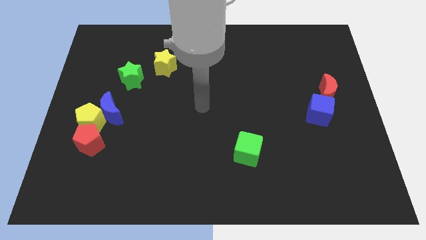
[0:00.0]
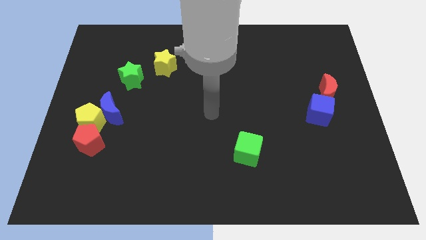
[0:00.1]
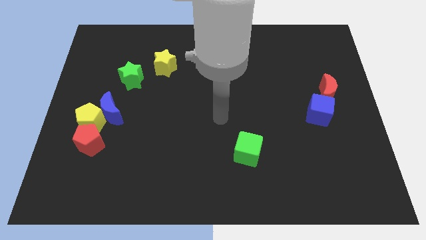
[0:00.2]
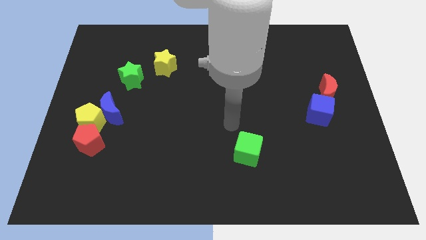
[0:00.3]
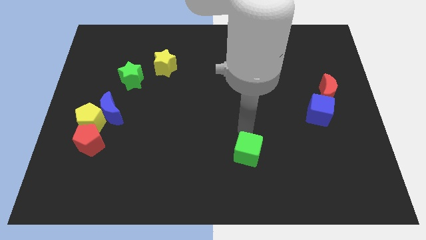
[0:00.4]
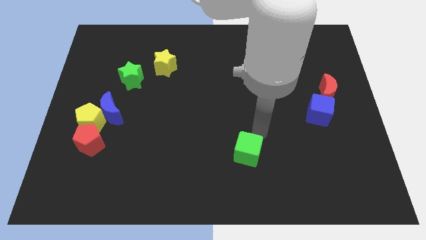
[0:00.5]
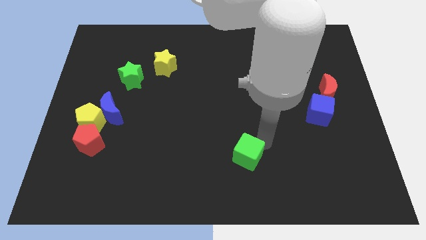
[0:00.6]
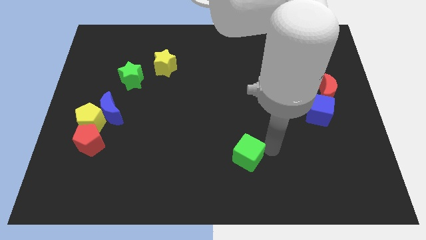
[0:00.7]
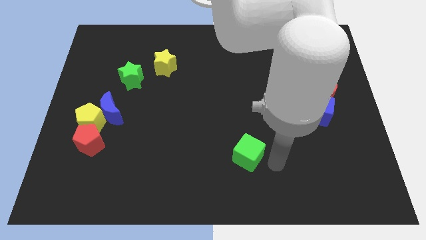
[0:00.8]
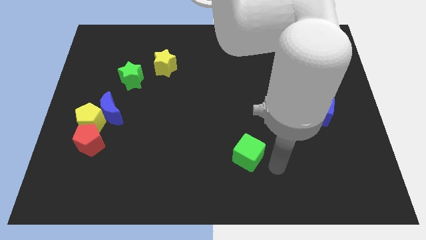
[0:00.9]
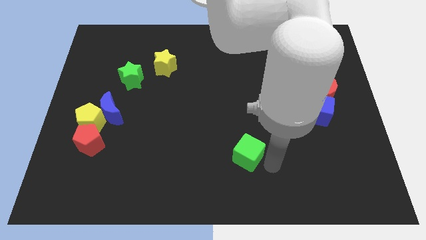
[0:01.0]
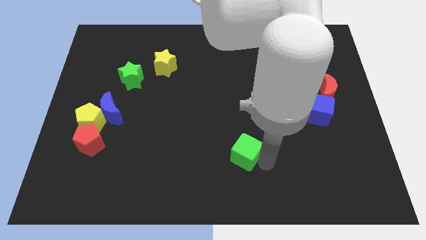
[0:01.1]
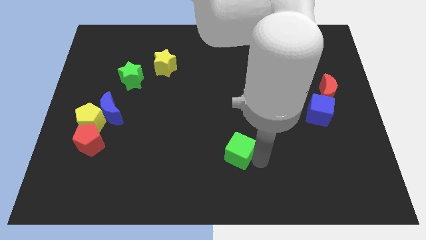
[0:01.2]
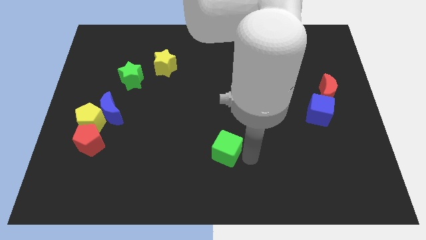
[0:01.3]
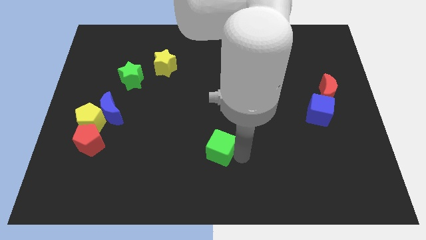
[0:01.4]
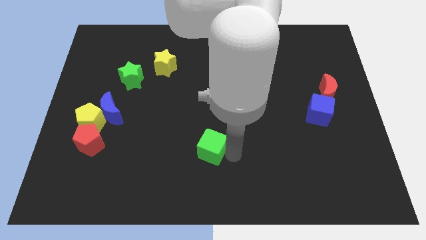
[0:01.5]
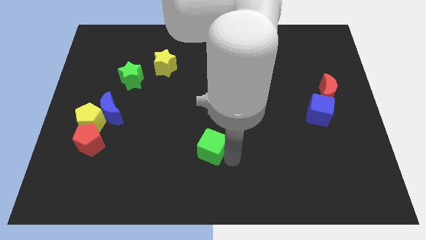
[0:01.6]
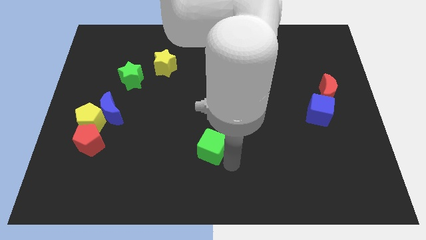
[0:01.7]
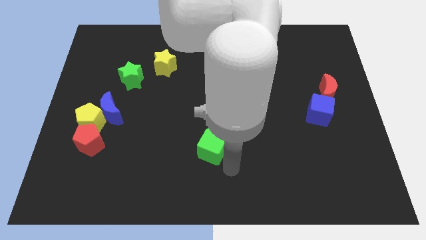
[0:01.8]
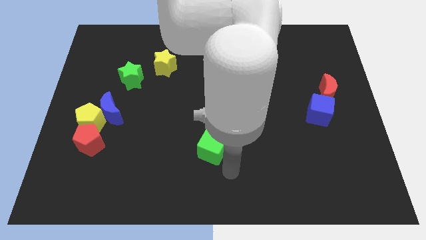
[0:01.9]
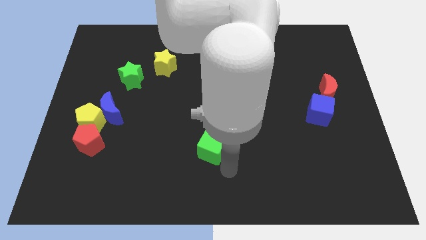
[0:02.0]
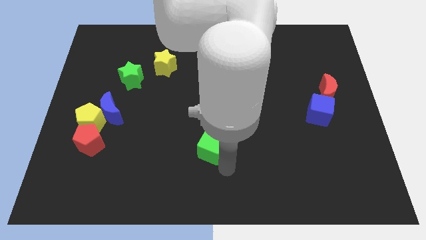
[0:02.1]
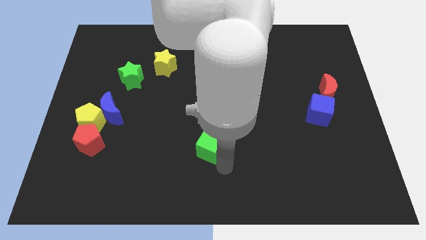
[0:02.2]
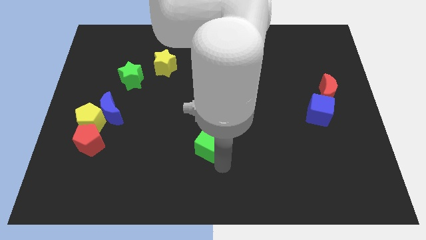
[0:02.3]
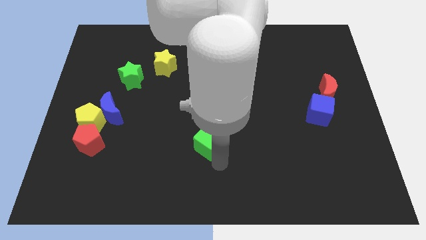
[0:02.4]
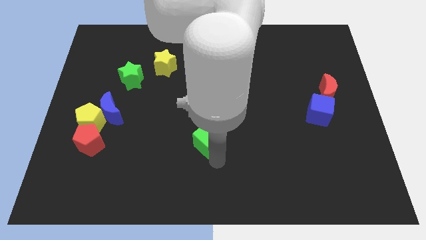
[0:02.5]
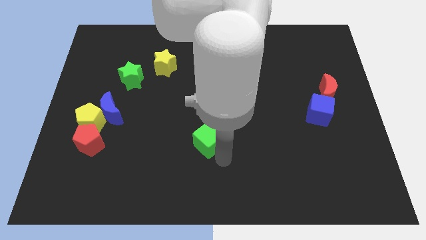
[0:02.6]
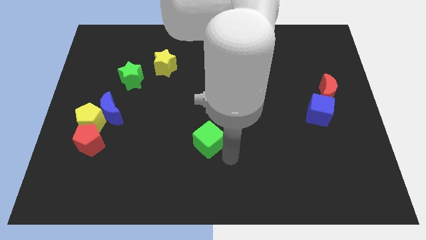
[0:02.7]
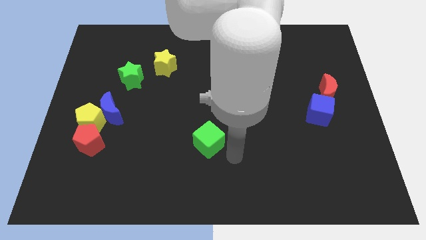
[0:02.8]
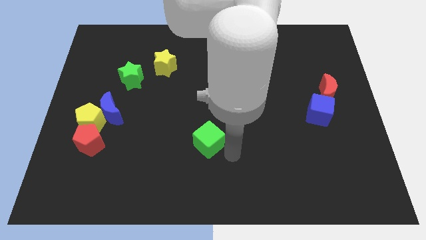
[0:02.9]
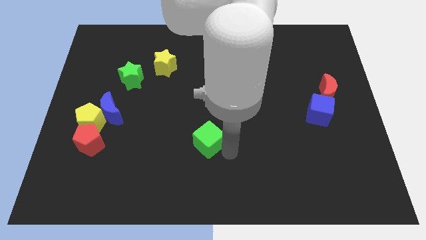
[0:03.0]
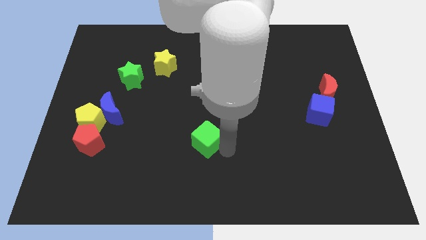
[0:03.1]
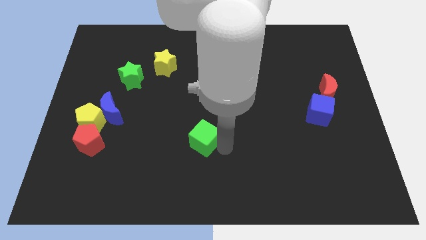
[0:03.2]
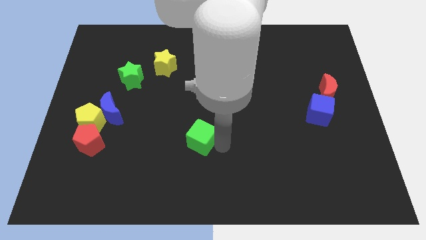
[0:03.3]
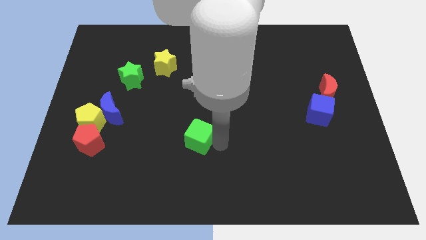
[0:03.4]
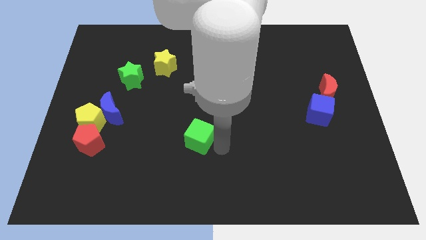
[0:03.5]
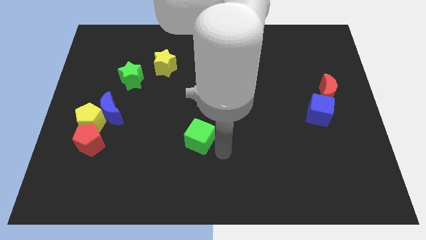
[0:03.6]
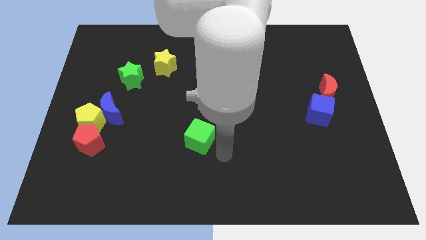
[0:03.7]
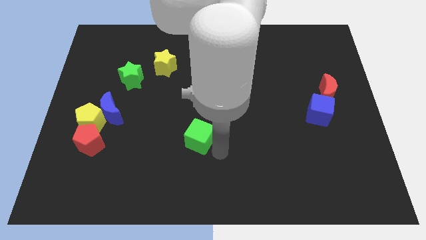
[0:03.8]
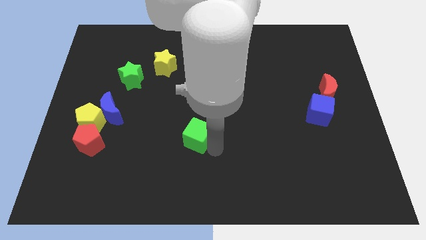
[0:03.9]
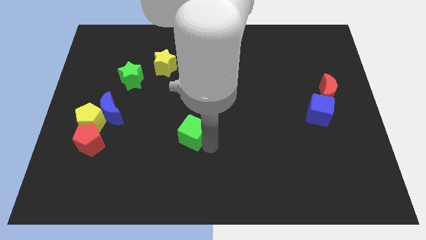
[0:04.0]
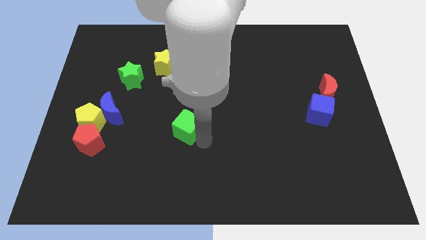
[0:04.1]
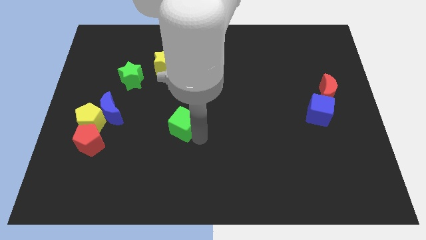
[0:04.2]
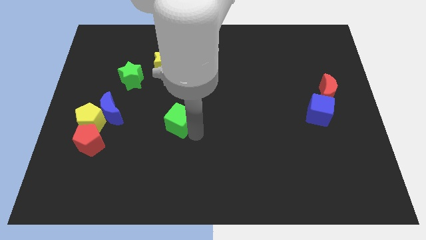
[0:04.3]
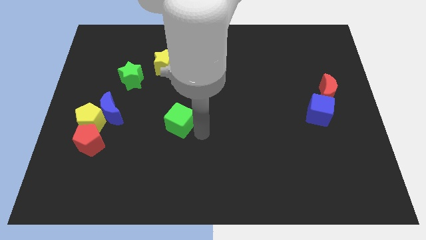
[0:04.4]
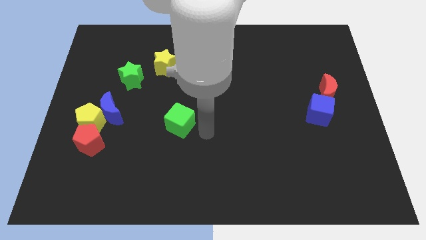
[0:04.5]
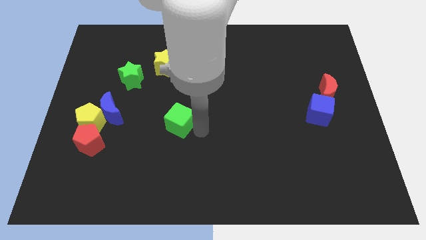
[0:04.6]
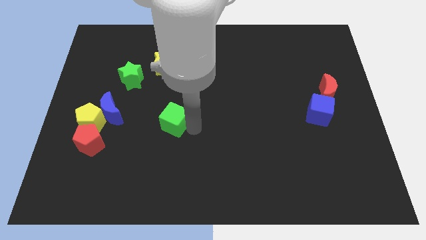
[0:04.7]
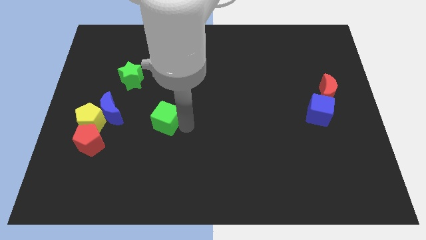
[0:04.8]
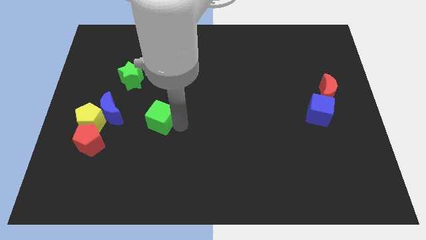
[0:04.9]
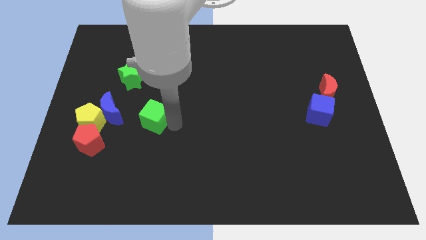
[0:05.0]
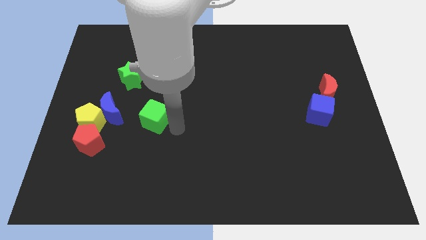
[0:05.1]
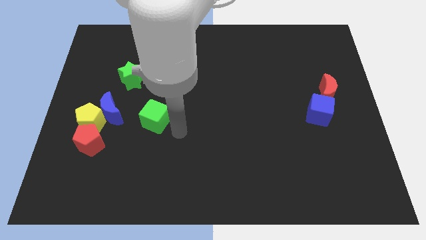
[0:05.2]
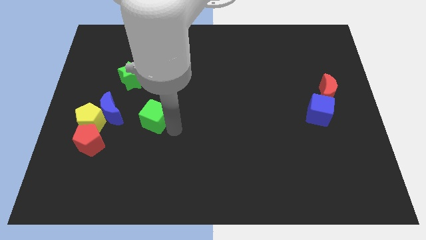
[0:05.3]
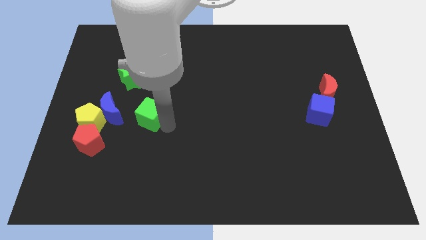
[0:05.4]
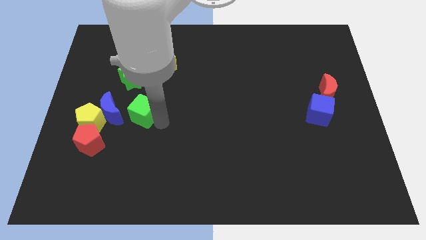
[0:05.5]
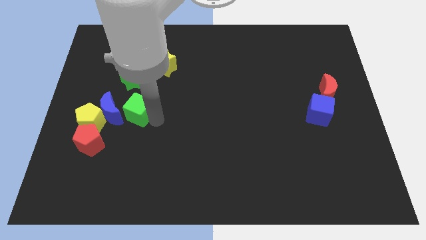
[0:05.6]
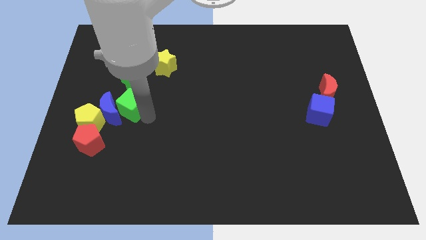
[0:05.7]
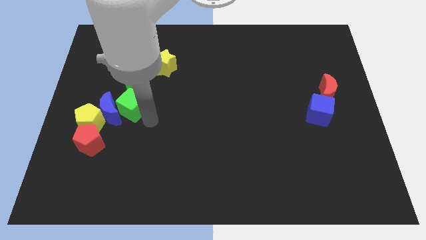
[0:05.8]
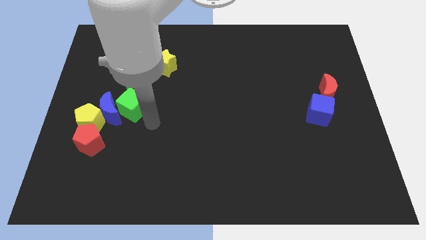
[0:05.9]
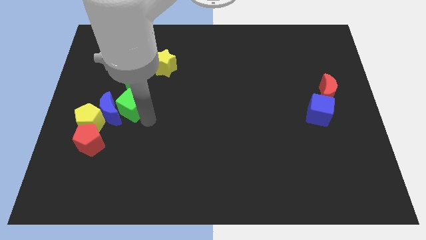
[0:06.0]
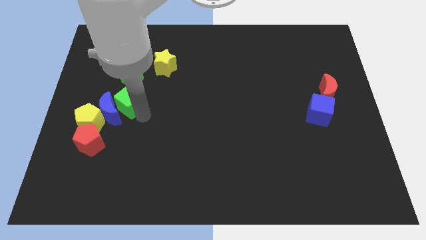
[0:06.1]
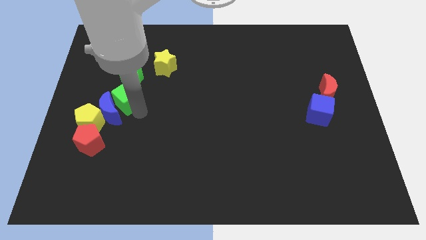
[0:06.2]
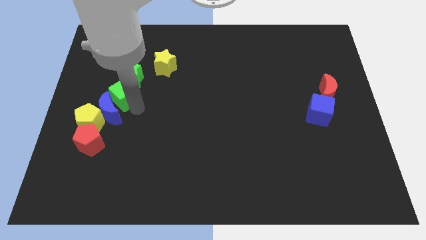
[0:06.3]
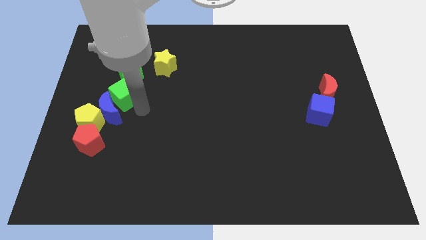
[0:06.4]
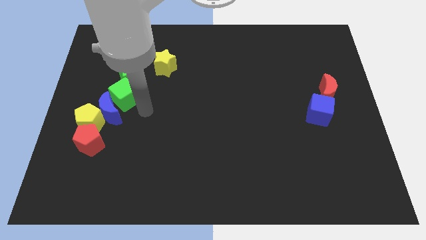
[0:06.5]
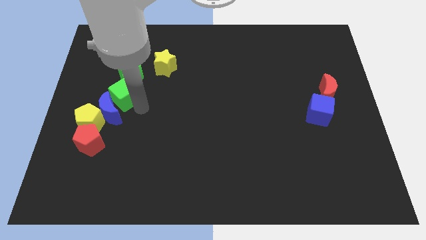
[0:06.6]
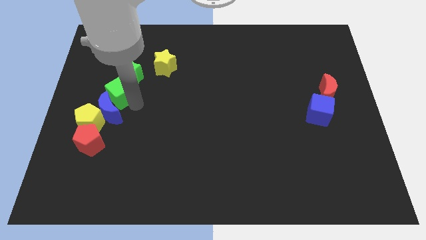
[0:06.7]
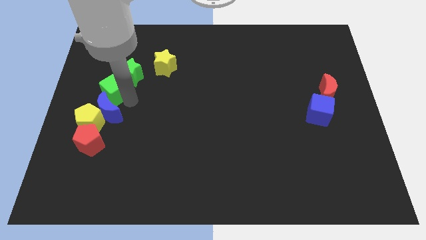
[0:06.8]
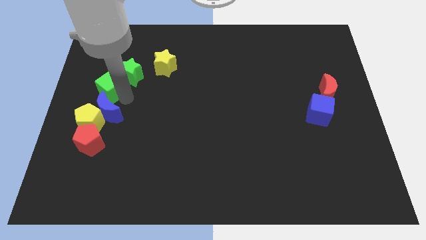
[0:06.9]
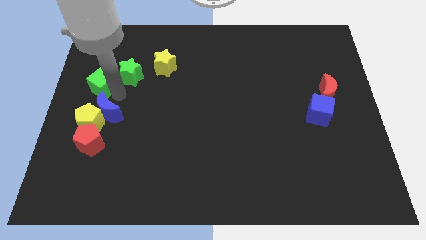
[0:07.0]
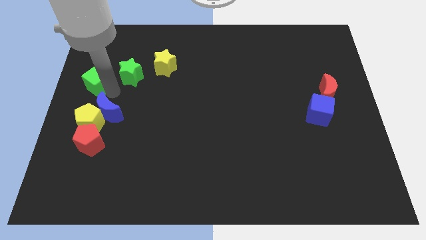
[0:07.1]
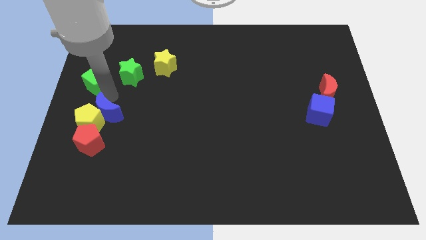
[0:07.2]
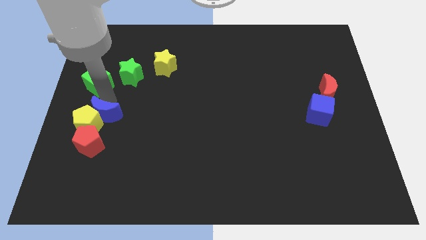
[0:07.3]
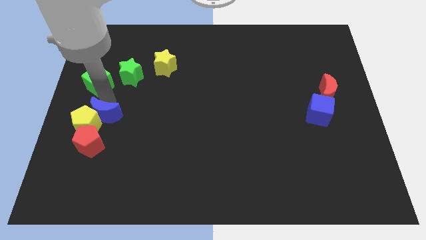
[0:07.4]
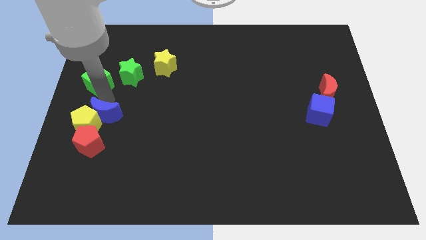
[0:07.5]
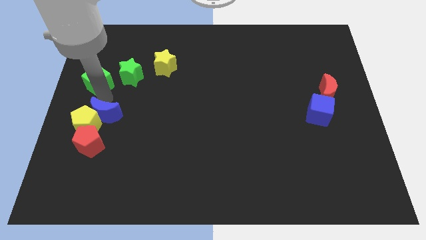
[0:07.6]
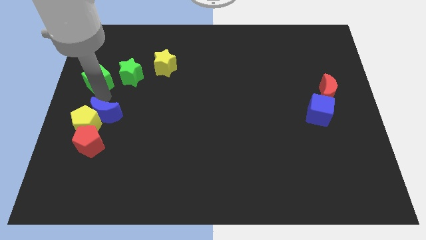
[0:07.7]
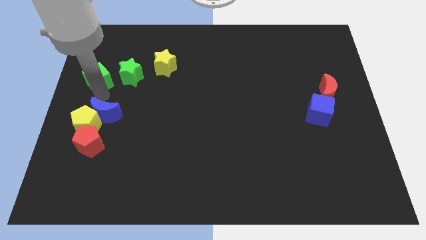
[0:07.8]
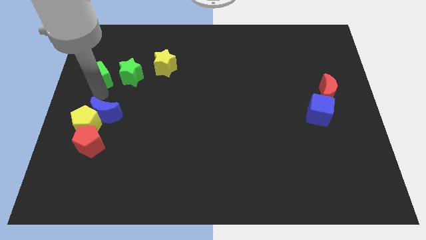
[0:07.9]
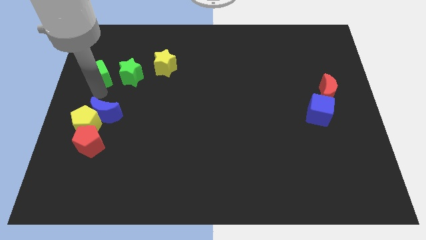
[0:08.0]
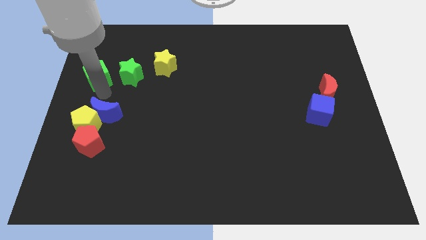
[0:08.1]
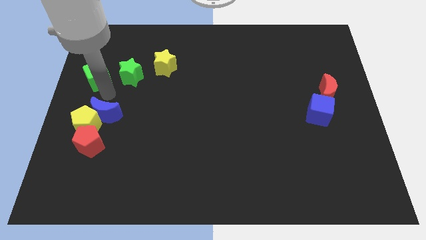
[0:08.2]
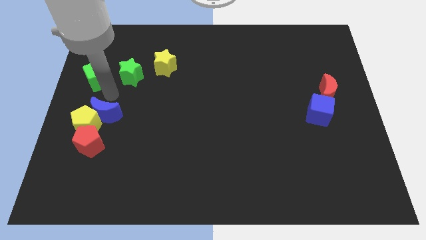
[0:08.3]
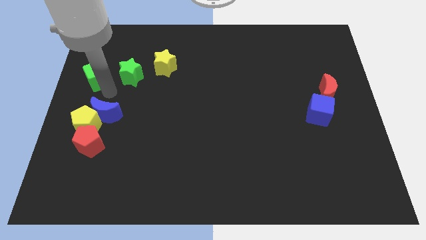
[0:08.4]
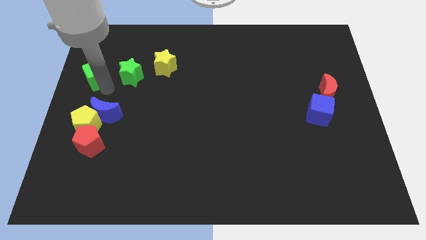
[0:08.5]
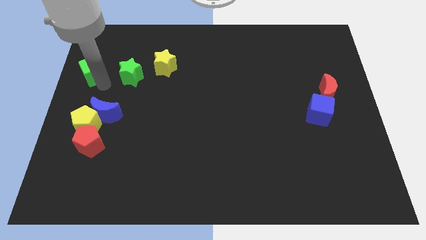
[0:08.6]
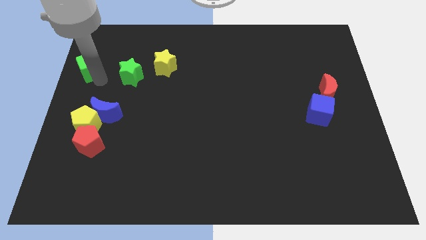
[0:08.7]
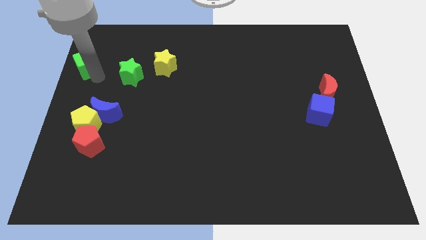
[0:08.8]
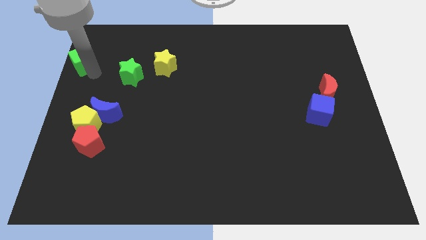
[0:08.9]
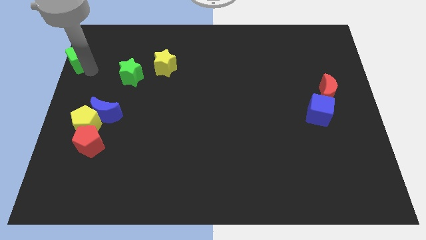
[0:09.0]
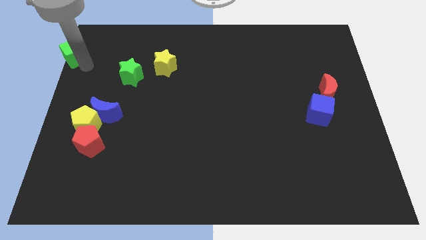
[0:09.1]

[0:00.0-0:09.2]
slide the green cube to the top left of the board
